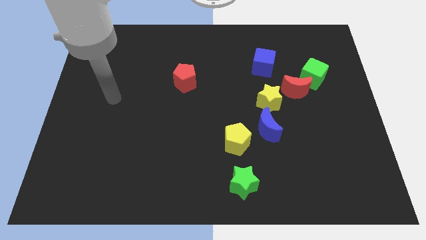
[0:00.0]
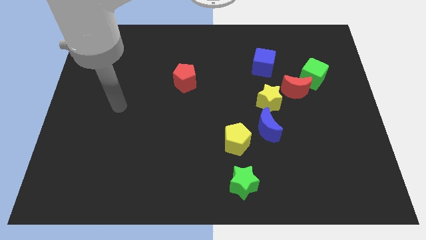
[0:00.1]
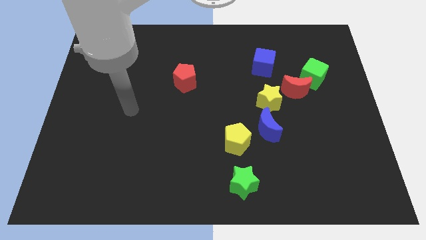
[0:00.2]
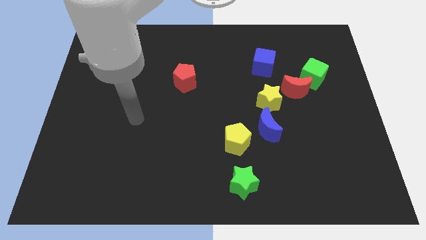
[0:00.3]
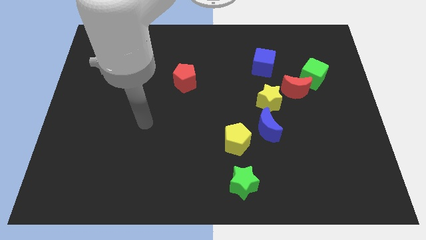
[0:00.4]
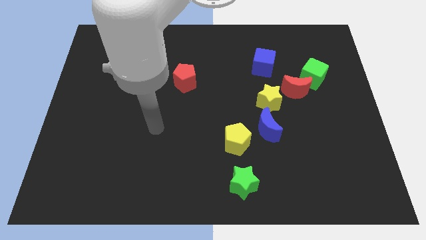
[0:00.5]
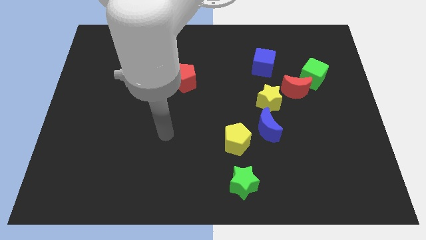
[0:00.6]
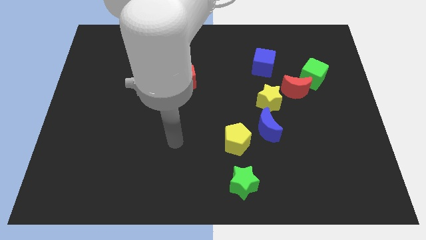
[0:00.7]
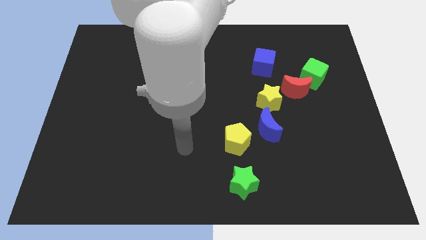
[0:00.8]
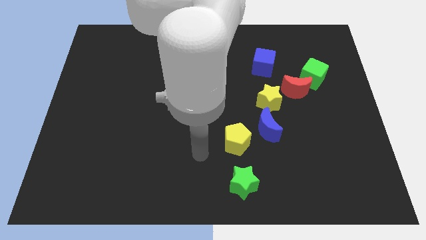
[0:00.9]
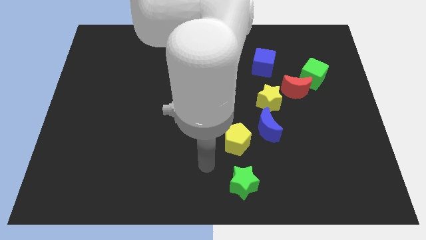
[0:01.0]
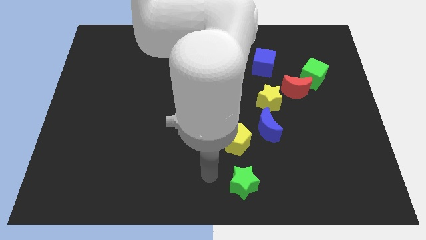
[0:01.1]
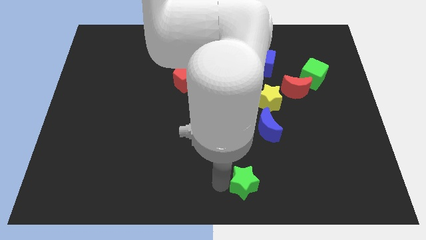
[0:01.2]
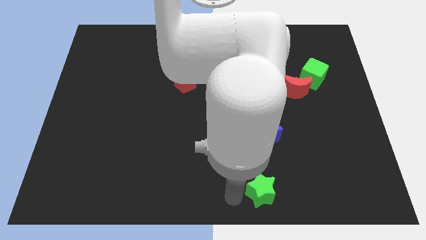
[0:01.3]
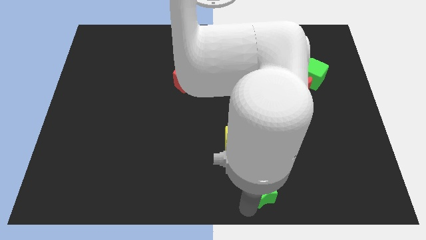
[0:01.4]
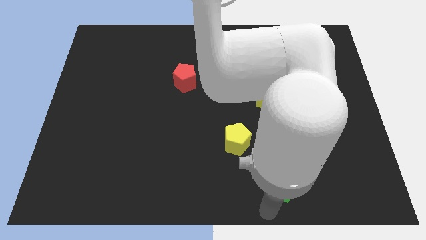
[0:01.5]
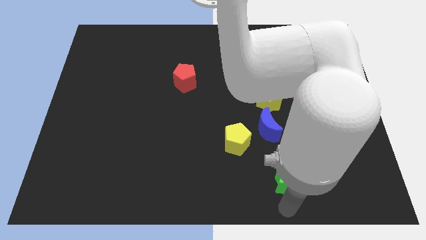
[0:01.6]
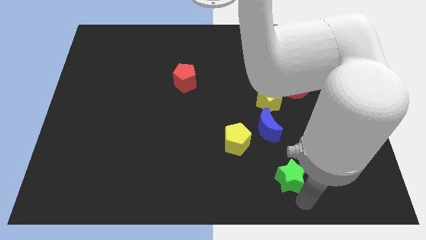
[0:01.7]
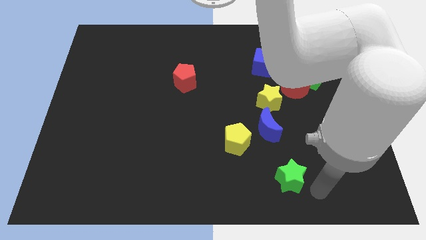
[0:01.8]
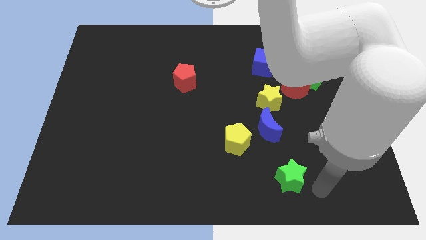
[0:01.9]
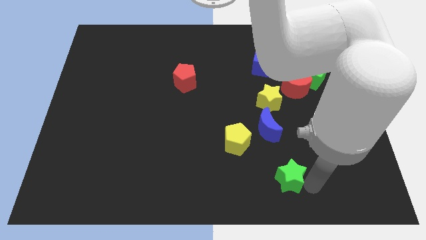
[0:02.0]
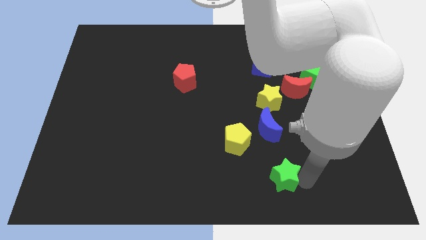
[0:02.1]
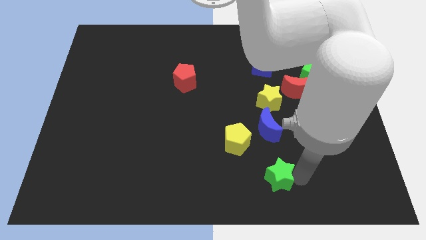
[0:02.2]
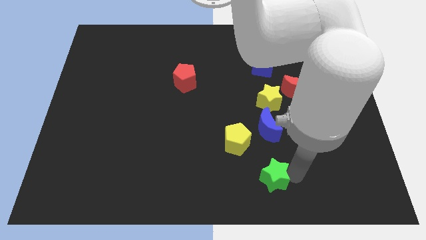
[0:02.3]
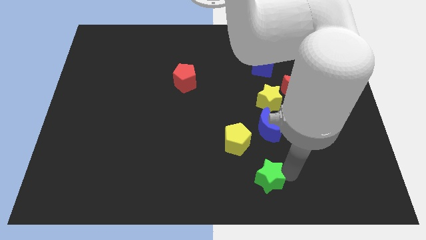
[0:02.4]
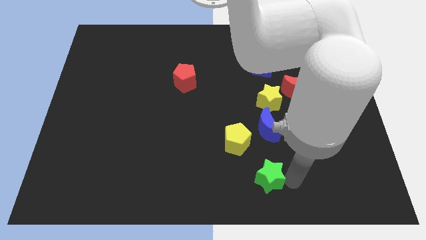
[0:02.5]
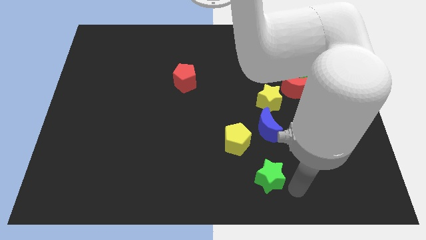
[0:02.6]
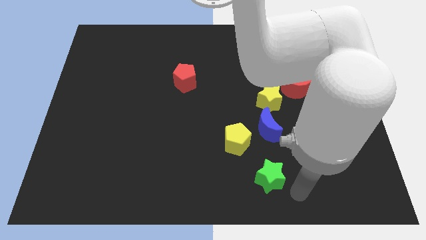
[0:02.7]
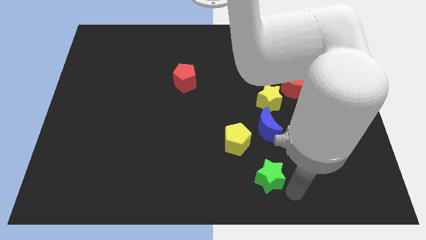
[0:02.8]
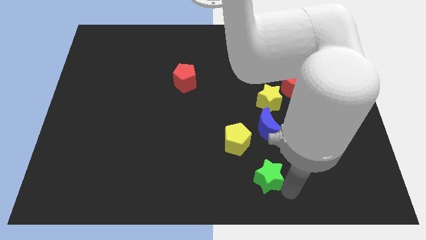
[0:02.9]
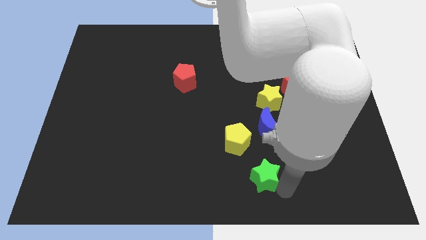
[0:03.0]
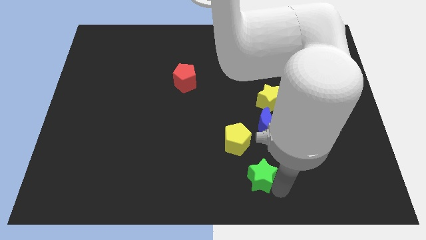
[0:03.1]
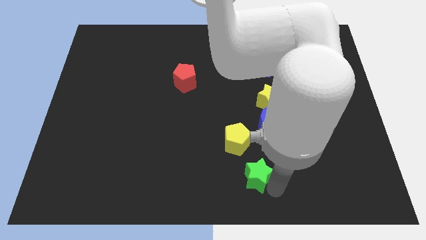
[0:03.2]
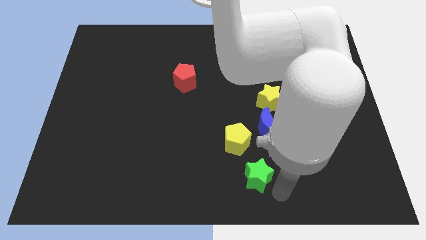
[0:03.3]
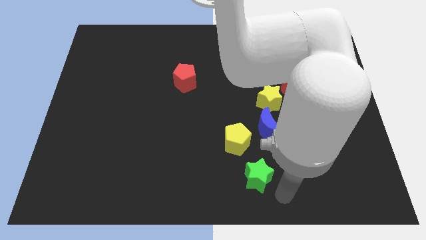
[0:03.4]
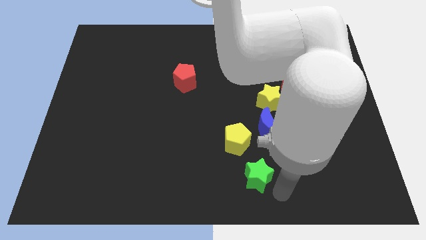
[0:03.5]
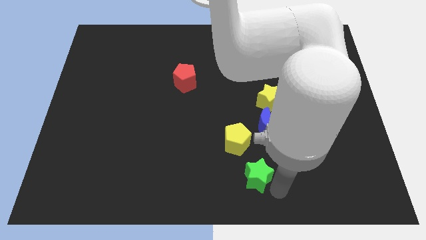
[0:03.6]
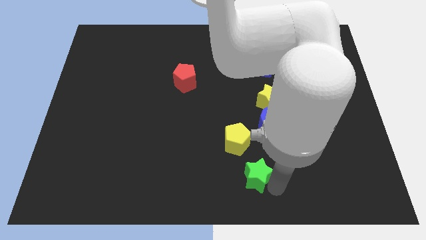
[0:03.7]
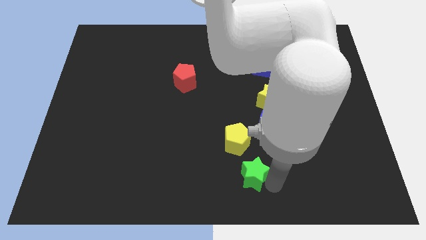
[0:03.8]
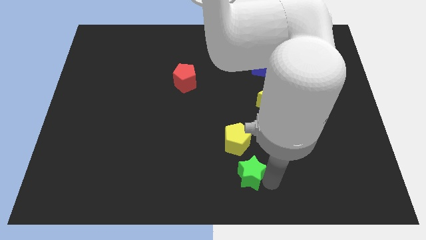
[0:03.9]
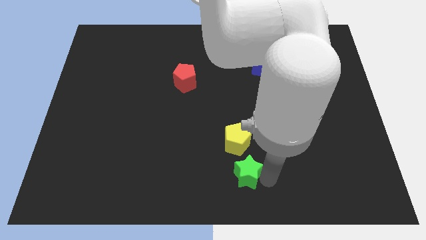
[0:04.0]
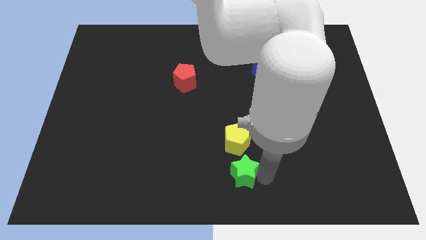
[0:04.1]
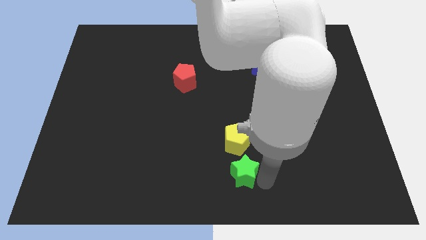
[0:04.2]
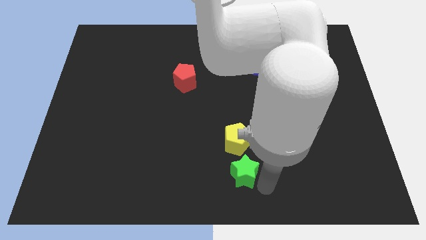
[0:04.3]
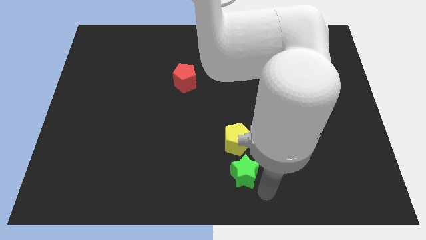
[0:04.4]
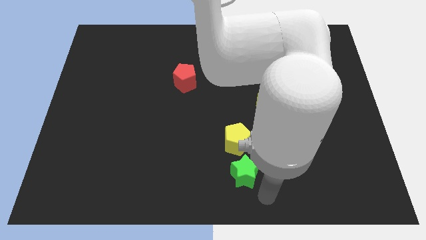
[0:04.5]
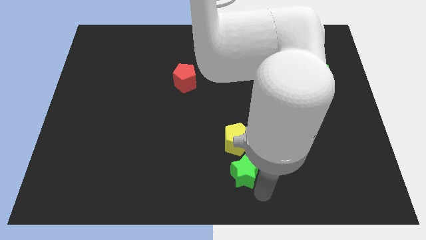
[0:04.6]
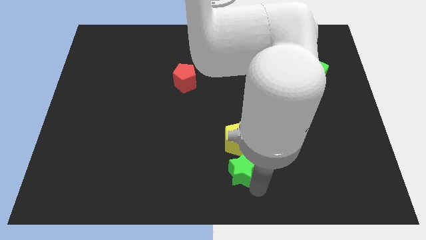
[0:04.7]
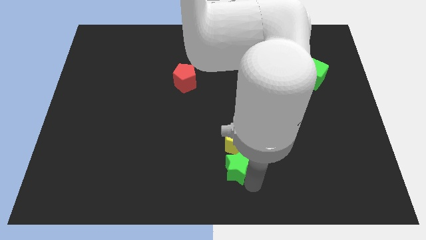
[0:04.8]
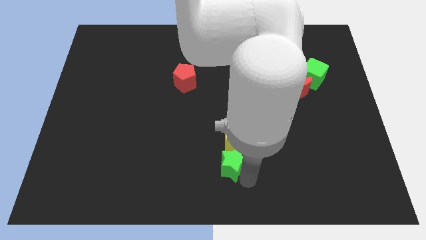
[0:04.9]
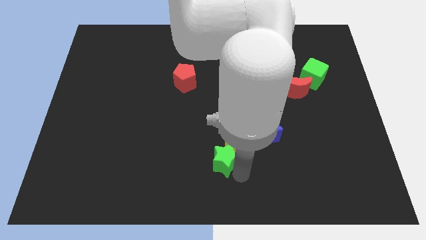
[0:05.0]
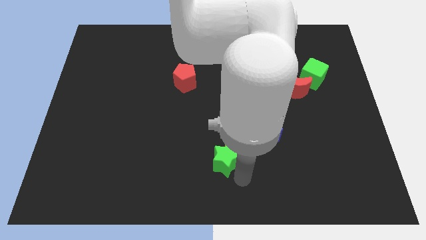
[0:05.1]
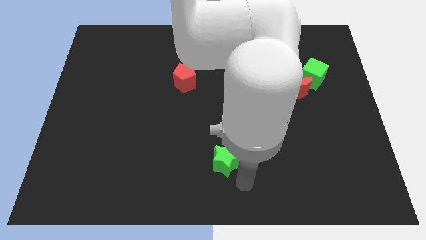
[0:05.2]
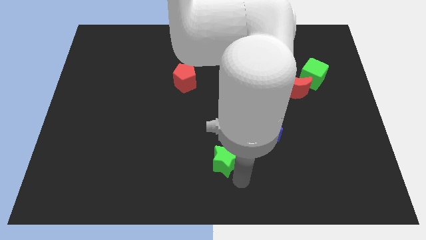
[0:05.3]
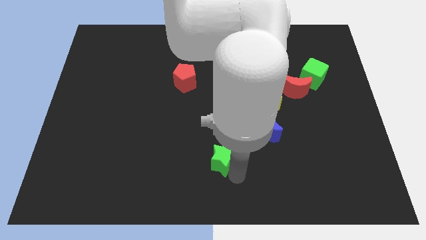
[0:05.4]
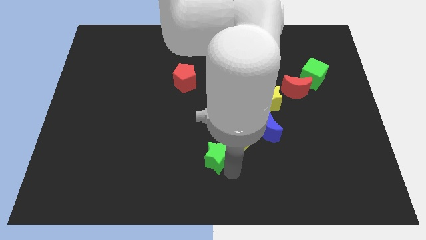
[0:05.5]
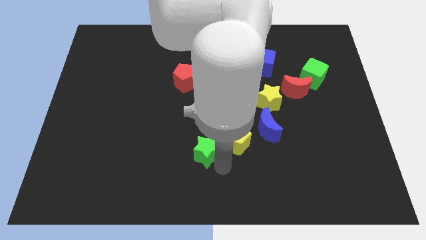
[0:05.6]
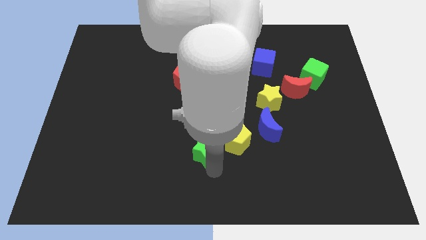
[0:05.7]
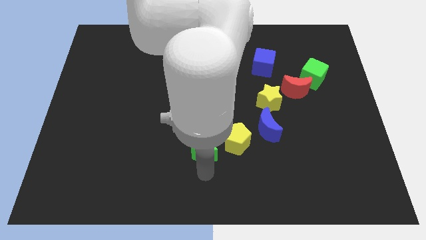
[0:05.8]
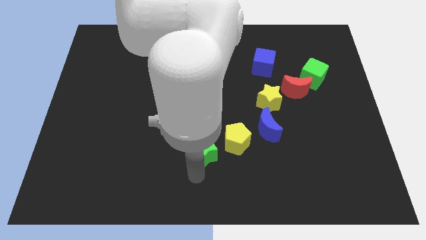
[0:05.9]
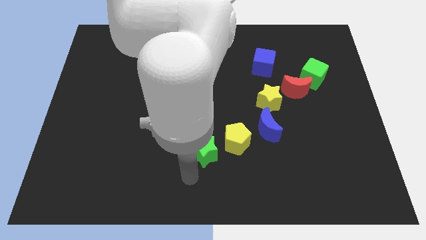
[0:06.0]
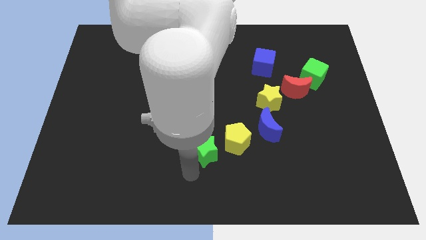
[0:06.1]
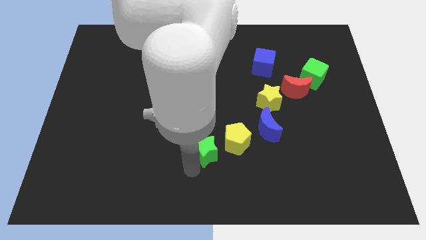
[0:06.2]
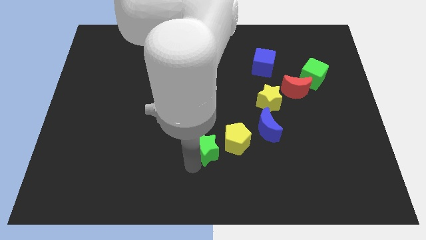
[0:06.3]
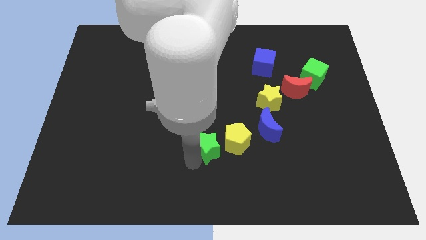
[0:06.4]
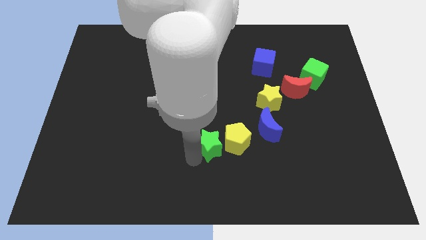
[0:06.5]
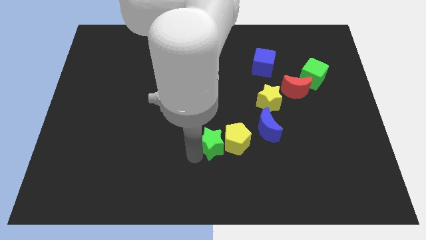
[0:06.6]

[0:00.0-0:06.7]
slide the green star upwards a little bit

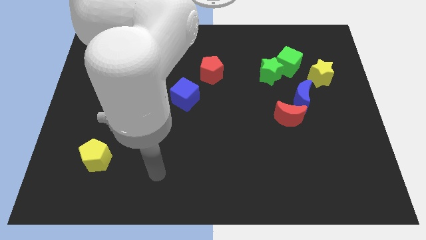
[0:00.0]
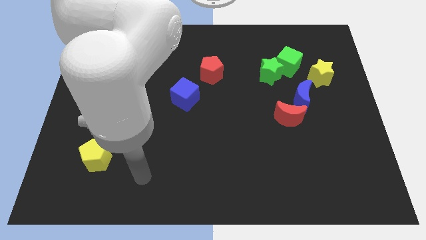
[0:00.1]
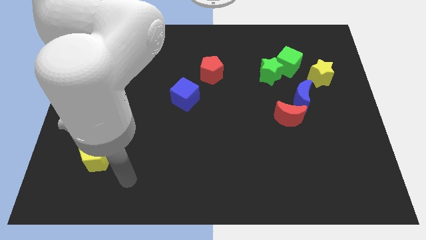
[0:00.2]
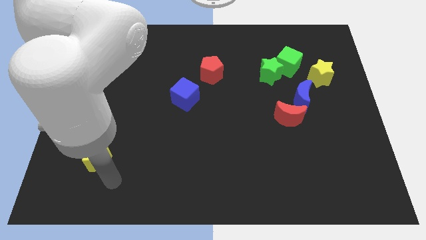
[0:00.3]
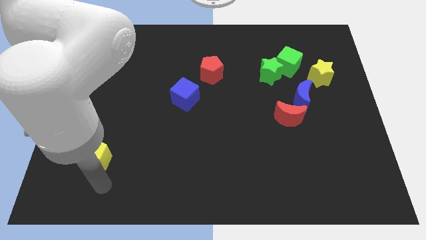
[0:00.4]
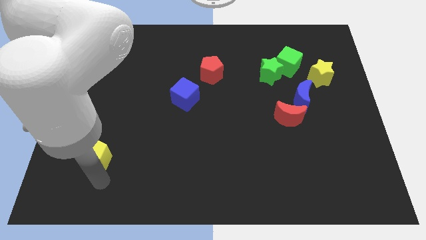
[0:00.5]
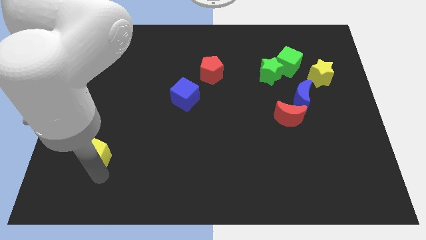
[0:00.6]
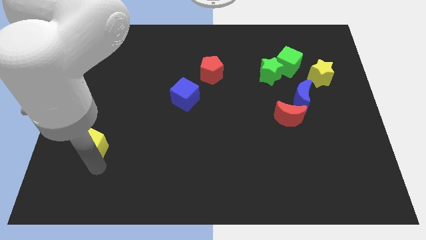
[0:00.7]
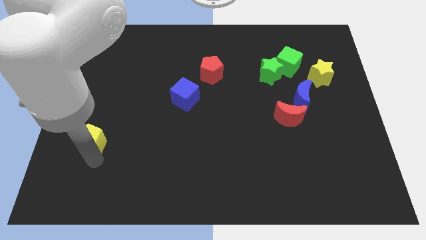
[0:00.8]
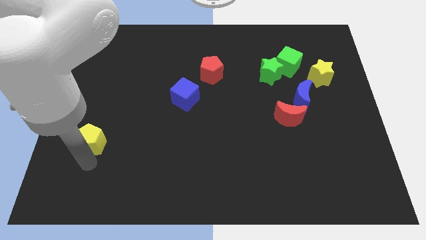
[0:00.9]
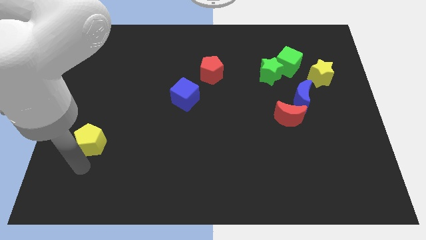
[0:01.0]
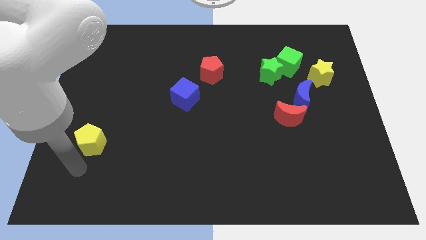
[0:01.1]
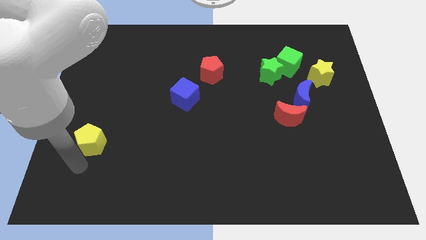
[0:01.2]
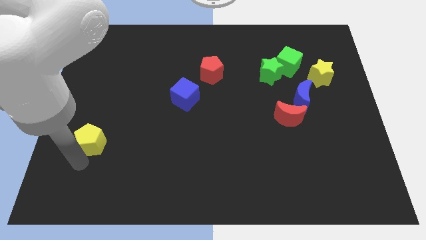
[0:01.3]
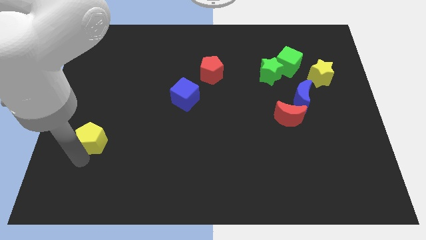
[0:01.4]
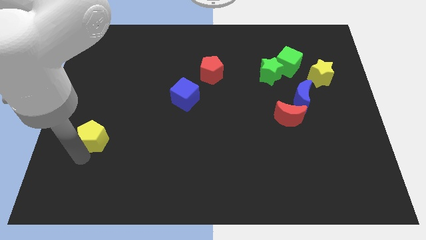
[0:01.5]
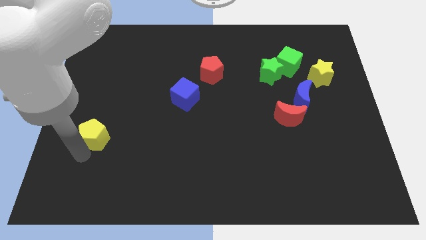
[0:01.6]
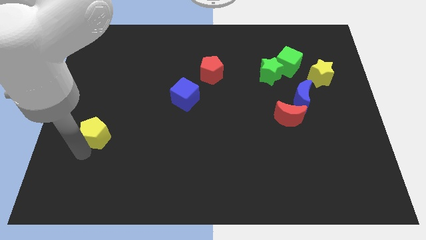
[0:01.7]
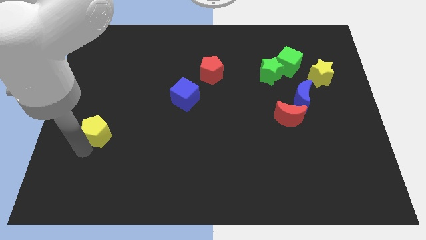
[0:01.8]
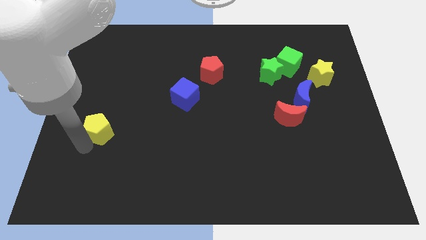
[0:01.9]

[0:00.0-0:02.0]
slide the yellow pentagon up a bit
